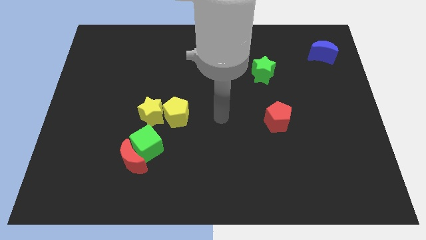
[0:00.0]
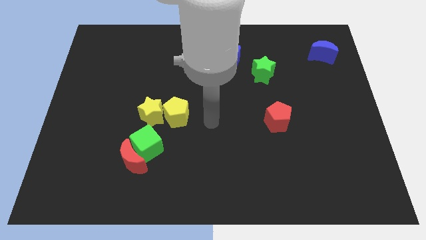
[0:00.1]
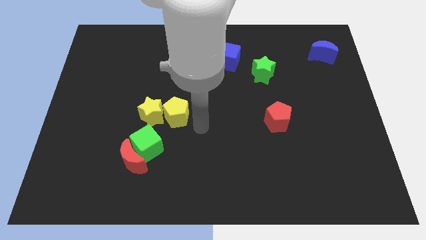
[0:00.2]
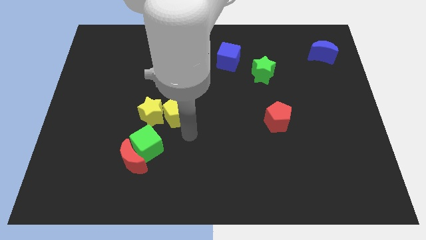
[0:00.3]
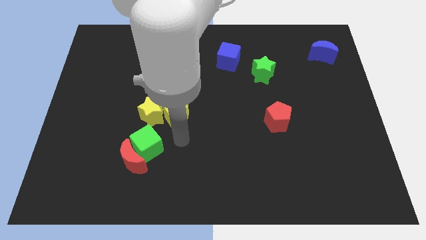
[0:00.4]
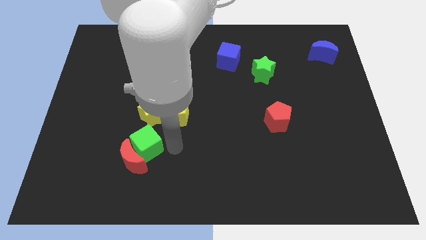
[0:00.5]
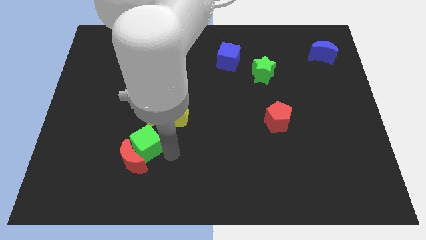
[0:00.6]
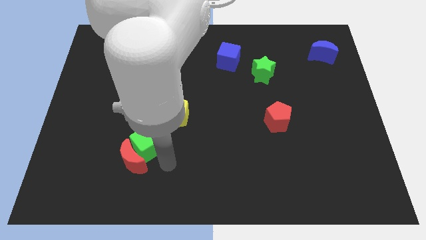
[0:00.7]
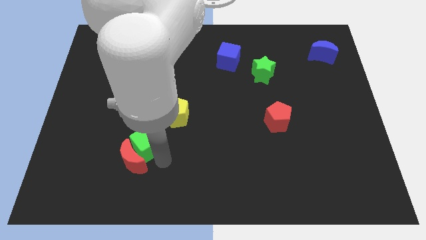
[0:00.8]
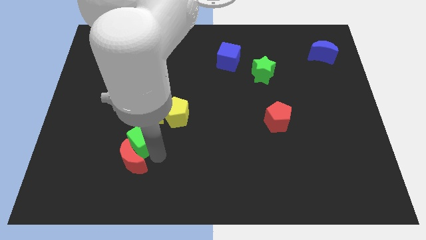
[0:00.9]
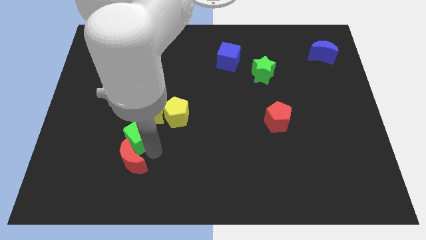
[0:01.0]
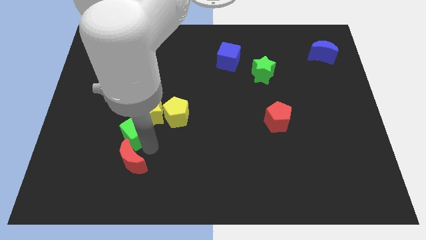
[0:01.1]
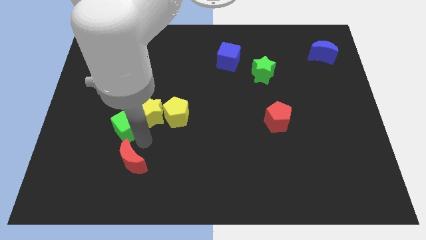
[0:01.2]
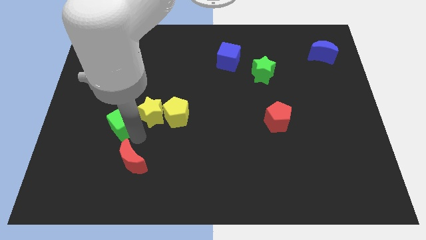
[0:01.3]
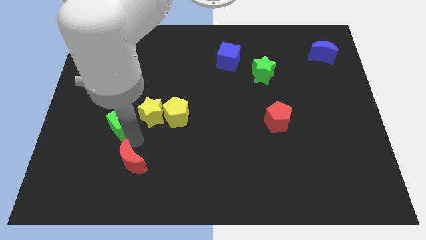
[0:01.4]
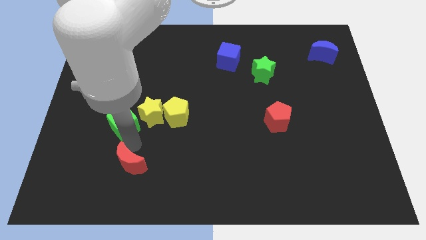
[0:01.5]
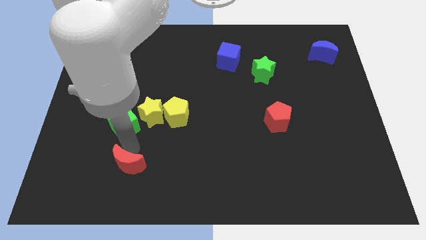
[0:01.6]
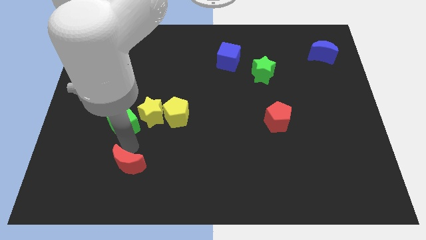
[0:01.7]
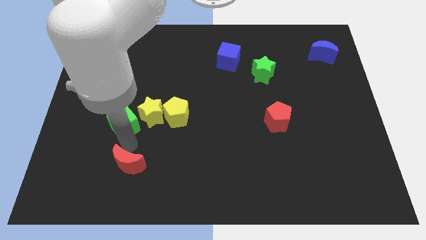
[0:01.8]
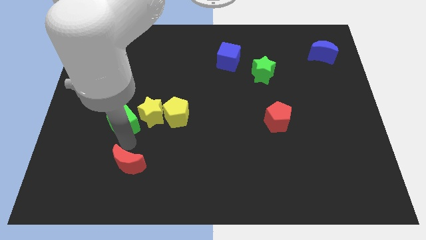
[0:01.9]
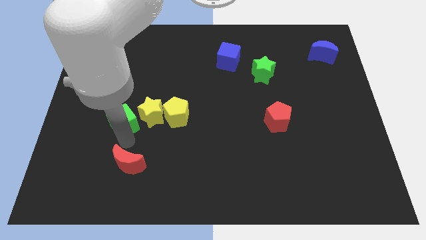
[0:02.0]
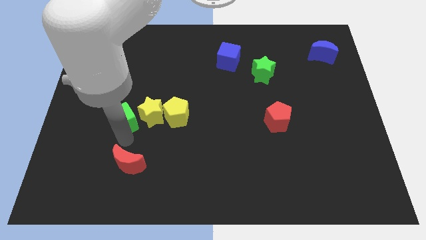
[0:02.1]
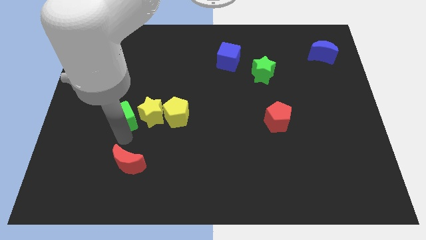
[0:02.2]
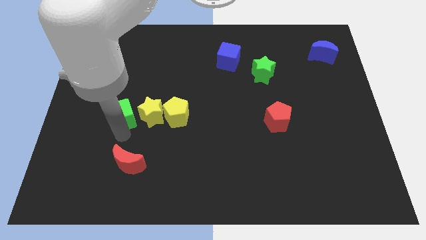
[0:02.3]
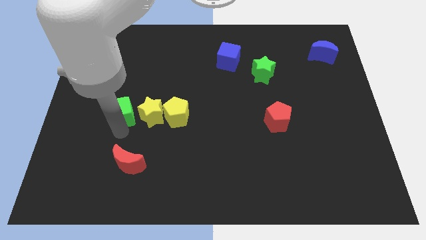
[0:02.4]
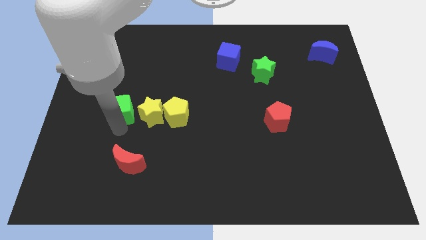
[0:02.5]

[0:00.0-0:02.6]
move the green cube a little upwards

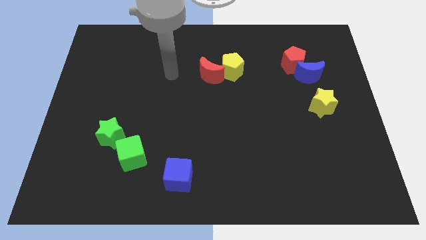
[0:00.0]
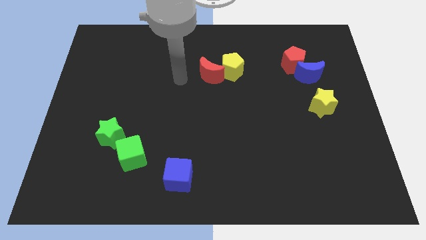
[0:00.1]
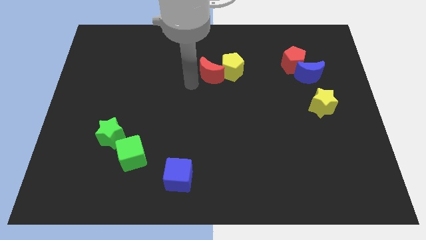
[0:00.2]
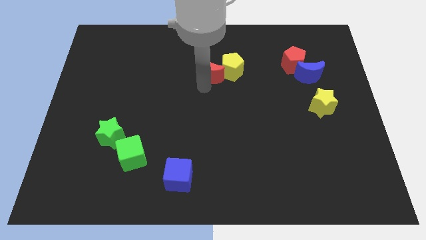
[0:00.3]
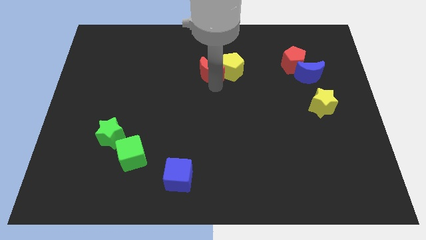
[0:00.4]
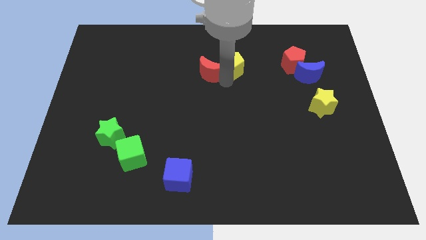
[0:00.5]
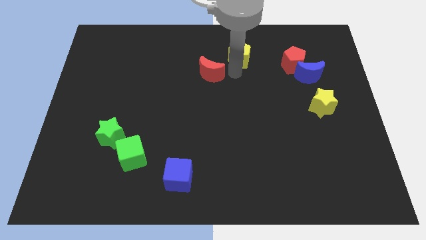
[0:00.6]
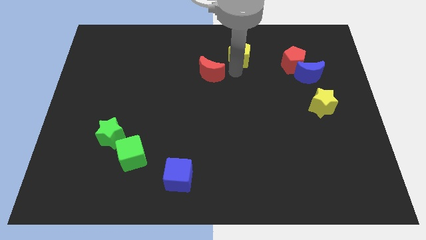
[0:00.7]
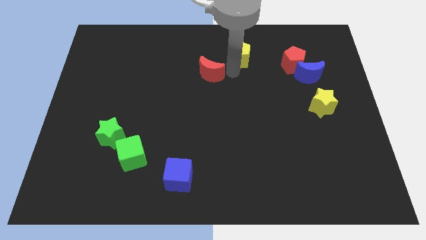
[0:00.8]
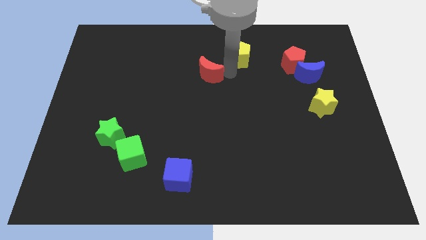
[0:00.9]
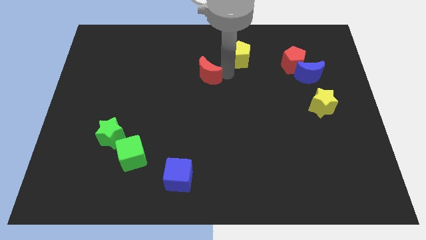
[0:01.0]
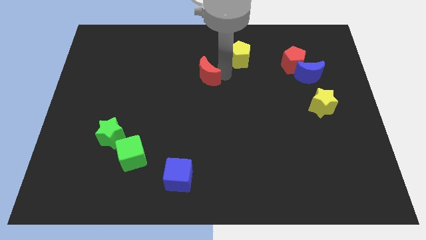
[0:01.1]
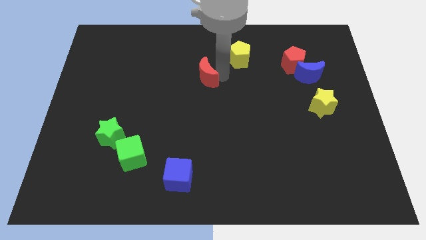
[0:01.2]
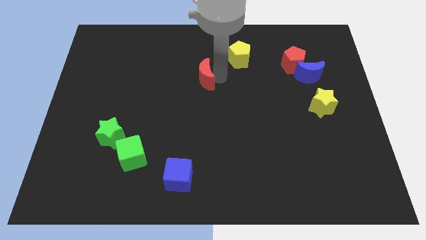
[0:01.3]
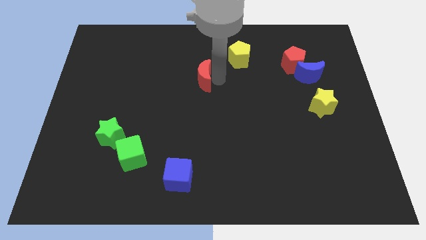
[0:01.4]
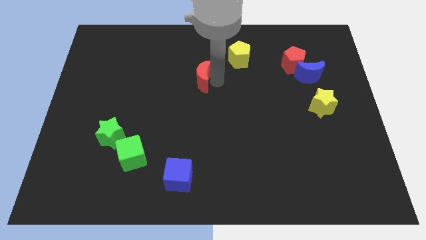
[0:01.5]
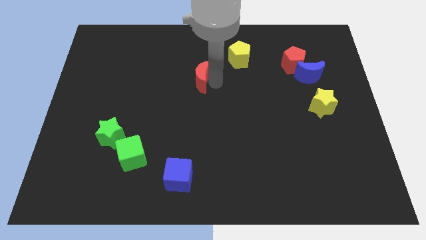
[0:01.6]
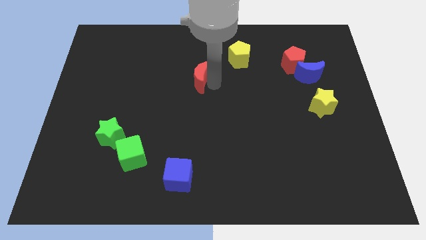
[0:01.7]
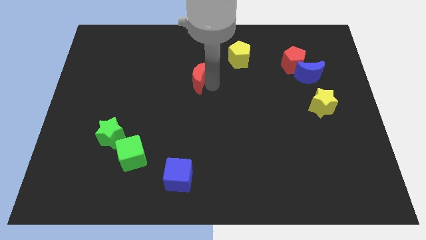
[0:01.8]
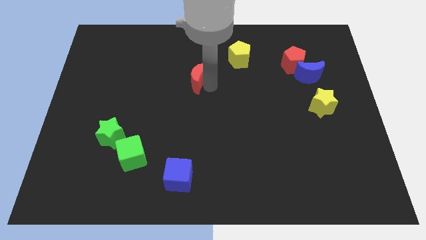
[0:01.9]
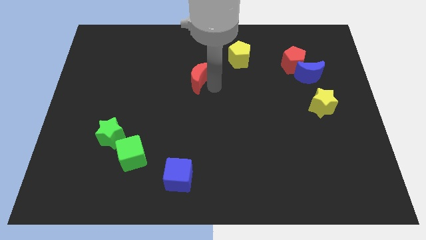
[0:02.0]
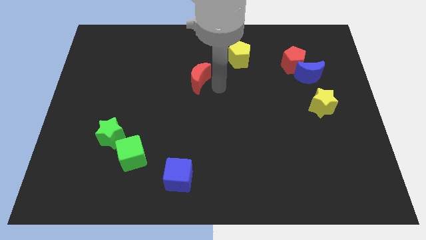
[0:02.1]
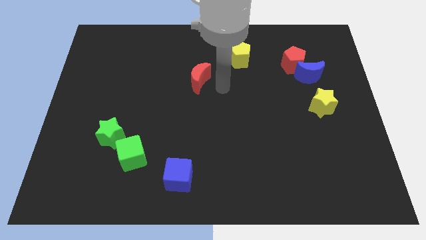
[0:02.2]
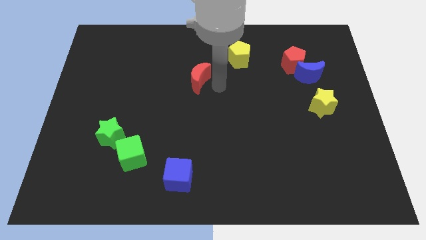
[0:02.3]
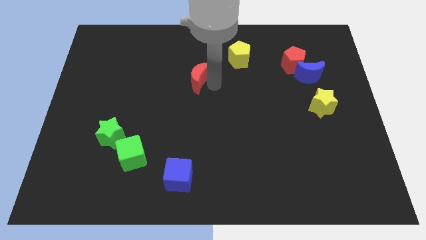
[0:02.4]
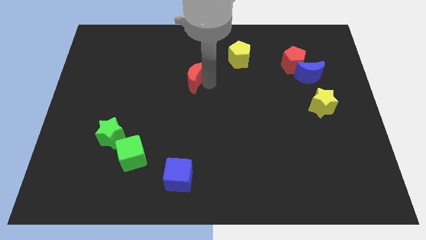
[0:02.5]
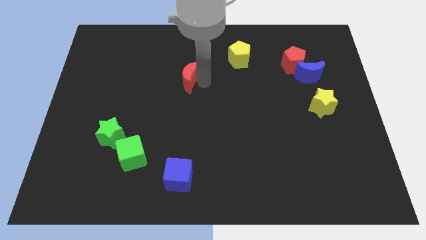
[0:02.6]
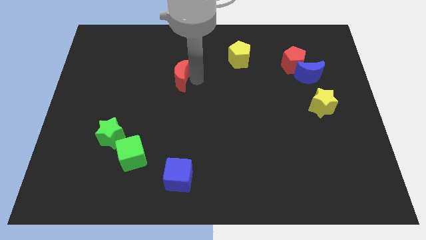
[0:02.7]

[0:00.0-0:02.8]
push the red moon left a bit

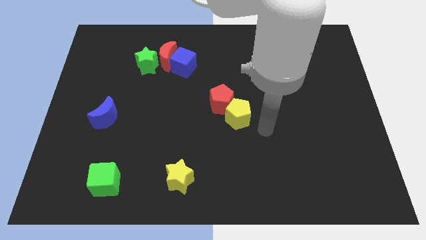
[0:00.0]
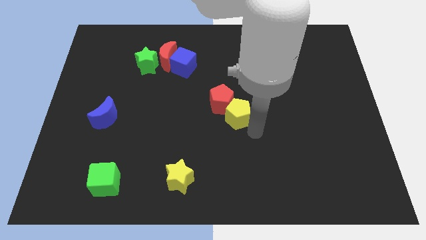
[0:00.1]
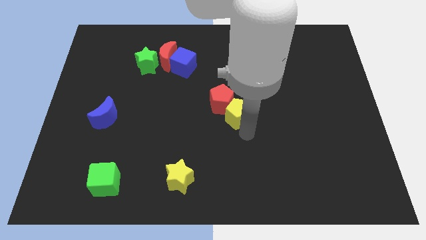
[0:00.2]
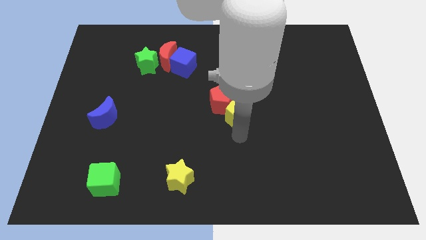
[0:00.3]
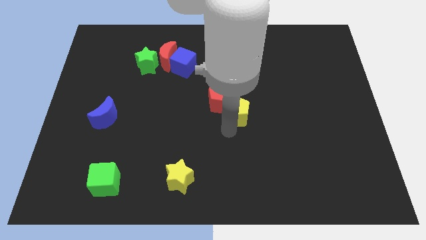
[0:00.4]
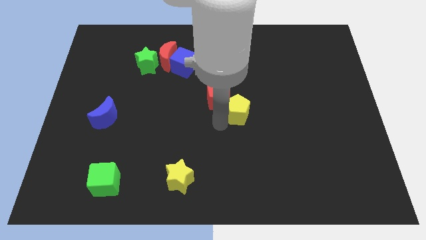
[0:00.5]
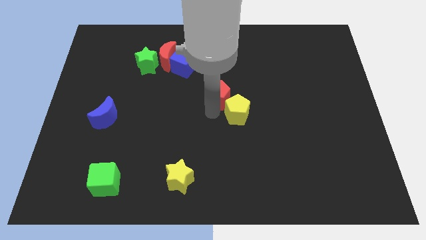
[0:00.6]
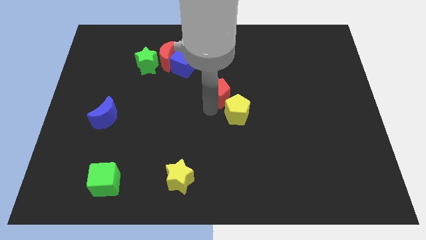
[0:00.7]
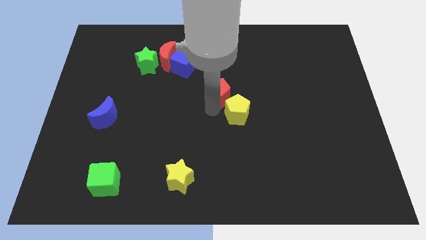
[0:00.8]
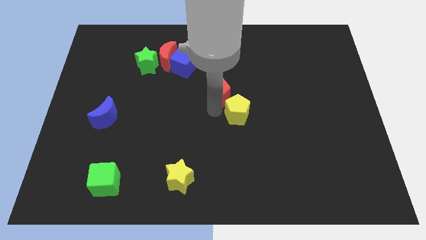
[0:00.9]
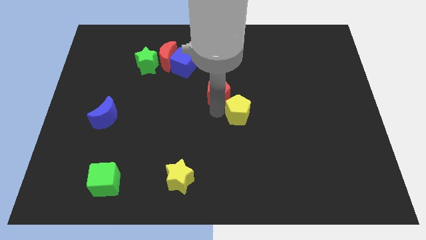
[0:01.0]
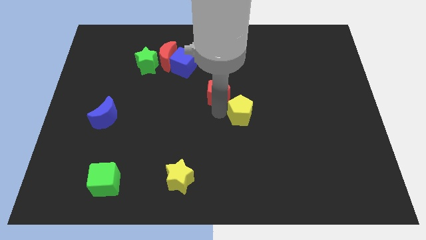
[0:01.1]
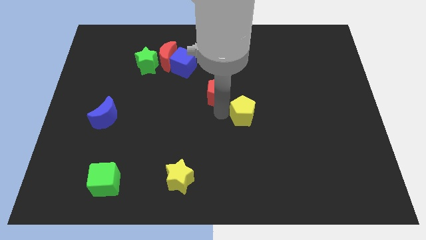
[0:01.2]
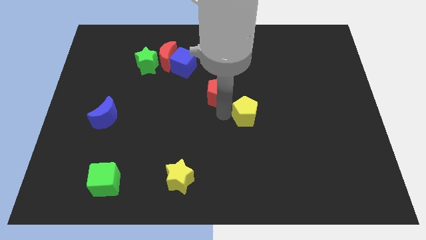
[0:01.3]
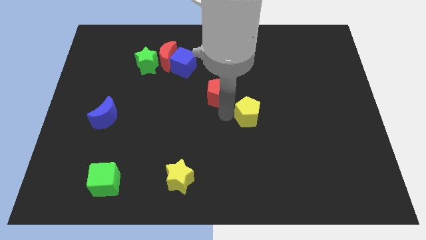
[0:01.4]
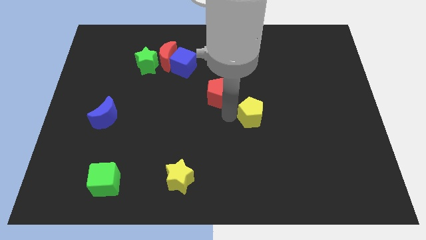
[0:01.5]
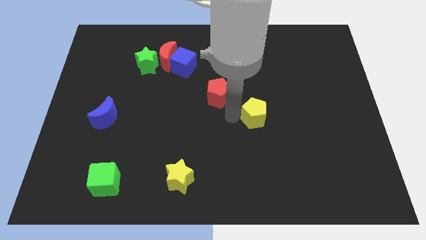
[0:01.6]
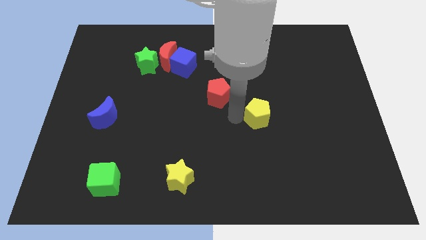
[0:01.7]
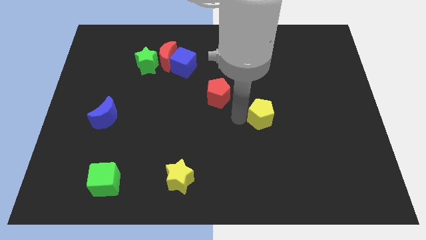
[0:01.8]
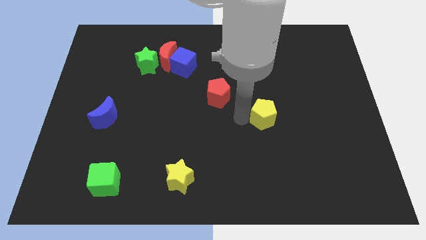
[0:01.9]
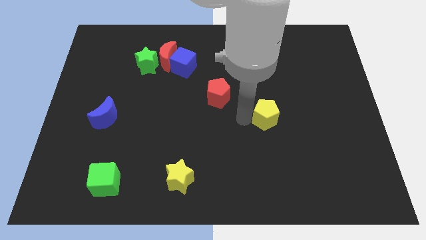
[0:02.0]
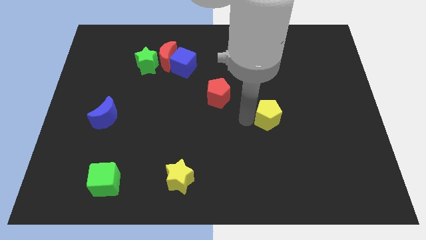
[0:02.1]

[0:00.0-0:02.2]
slightly slide the yellow pentagon right

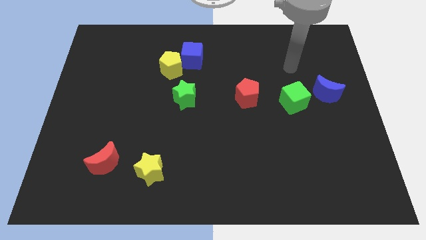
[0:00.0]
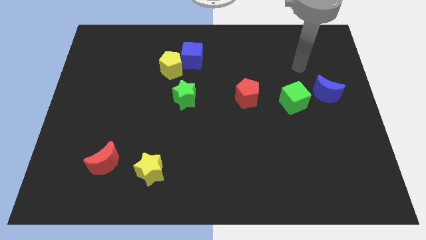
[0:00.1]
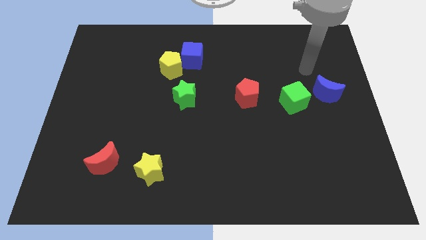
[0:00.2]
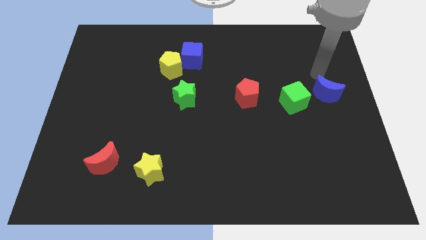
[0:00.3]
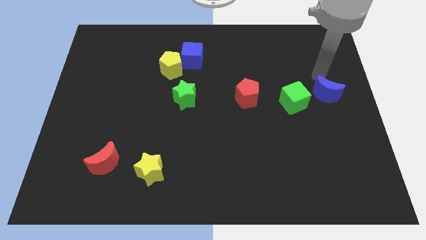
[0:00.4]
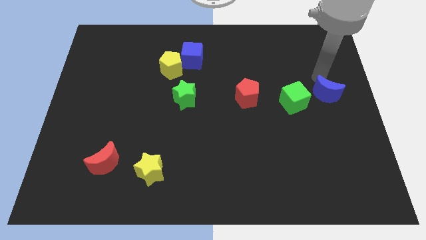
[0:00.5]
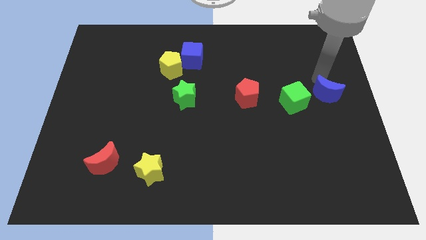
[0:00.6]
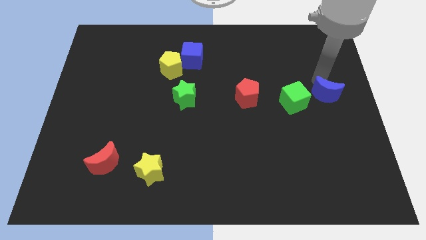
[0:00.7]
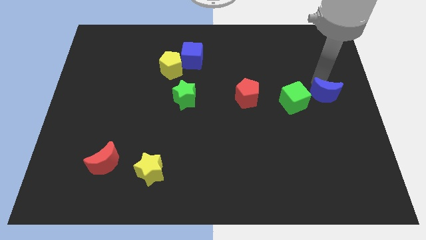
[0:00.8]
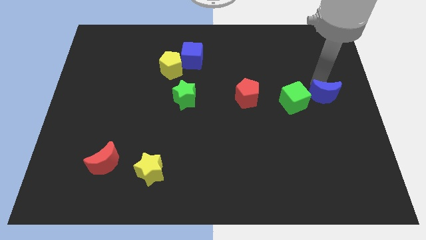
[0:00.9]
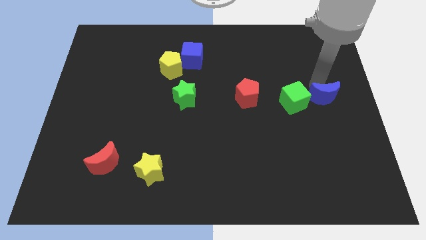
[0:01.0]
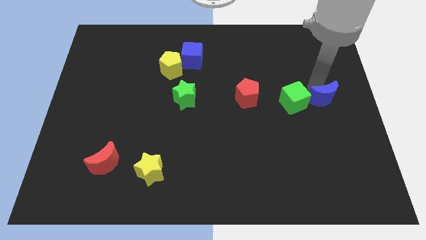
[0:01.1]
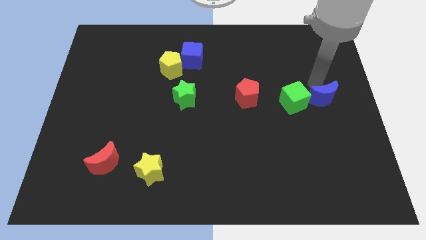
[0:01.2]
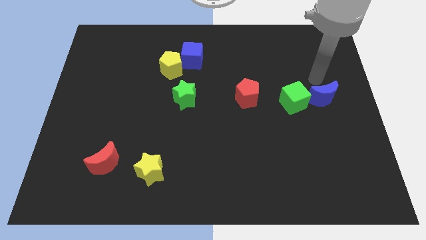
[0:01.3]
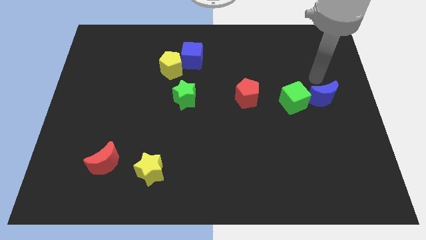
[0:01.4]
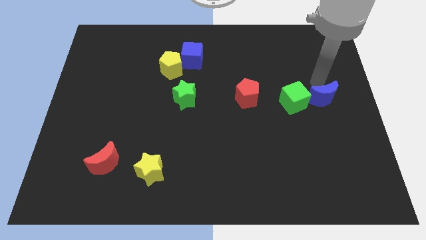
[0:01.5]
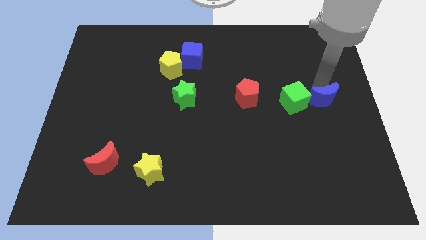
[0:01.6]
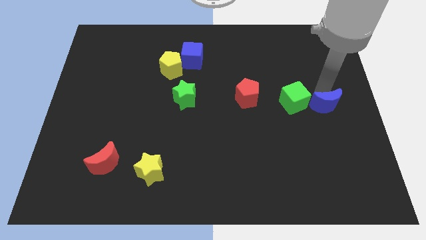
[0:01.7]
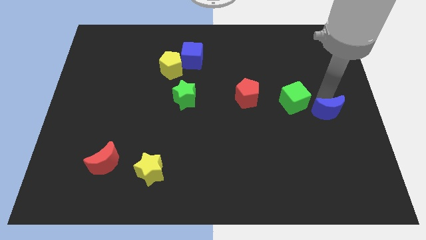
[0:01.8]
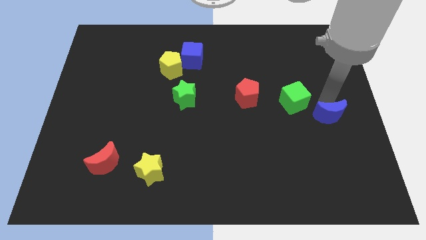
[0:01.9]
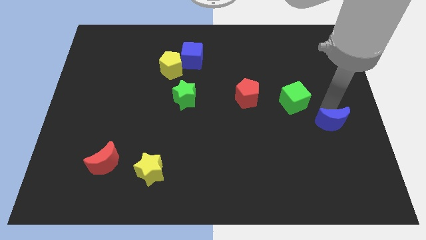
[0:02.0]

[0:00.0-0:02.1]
move the blue moon somewhat downwards
